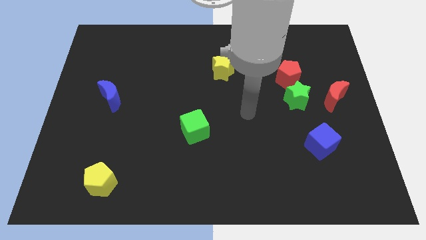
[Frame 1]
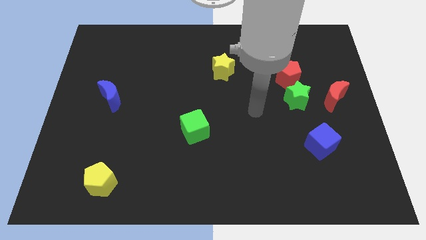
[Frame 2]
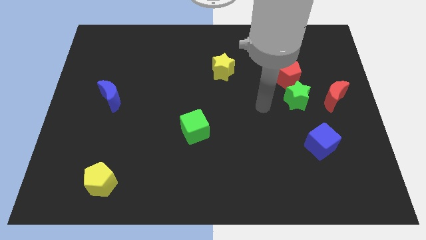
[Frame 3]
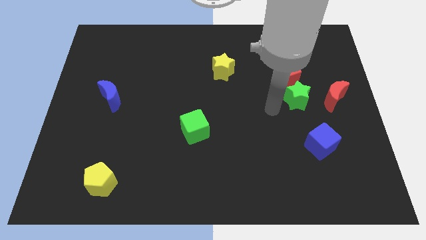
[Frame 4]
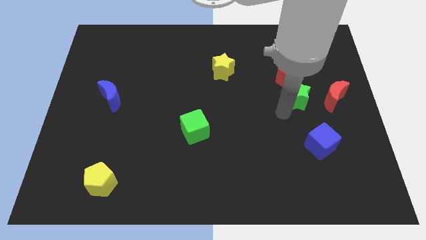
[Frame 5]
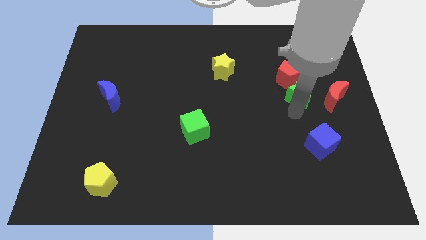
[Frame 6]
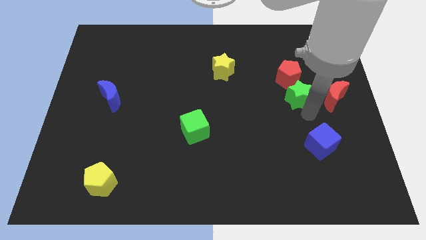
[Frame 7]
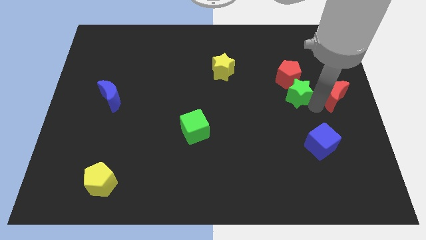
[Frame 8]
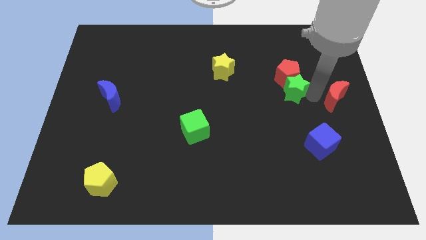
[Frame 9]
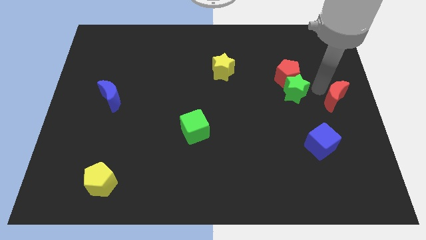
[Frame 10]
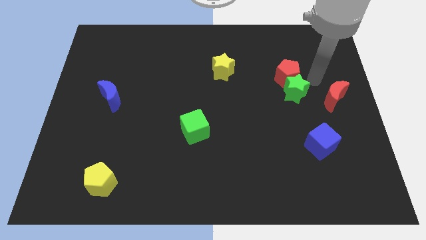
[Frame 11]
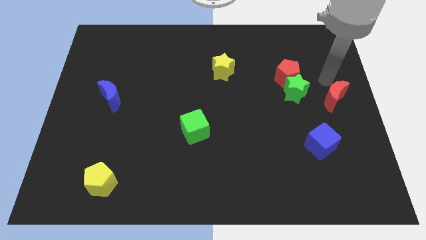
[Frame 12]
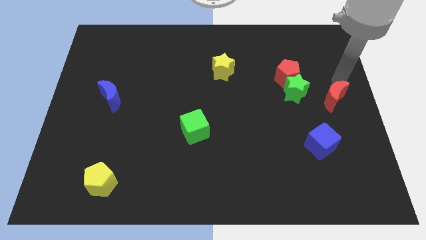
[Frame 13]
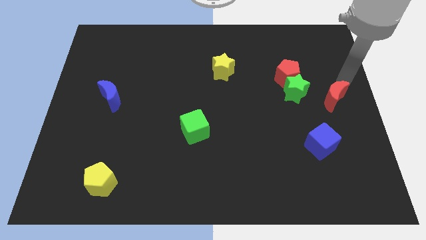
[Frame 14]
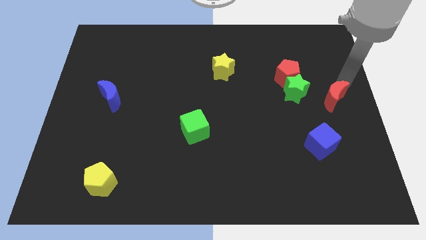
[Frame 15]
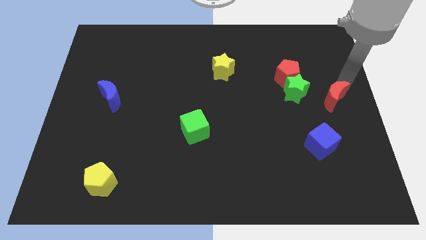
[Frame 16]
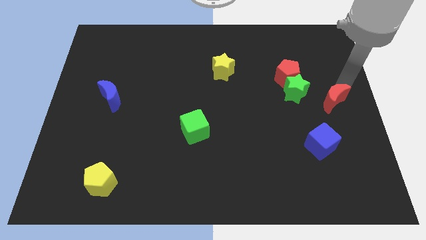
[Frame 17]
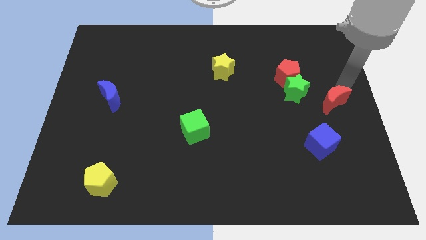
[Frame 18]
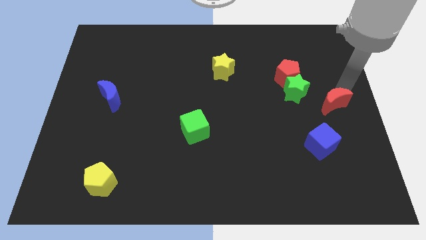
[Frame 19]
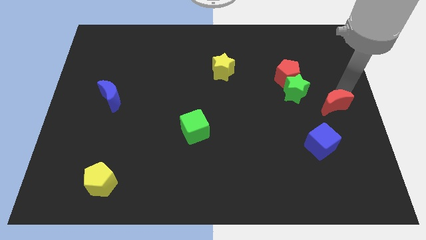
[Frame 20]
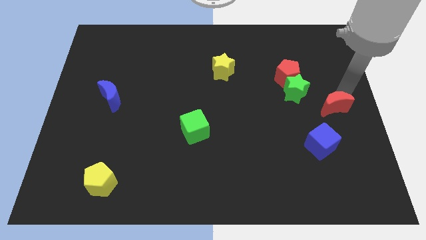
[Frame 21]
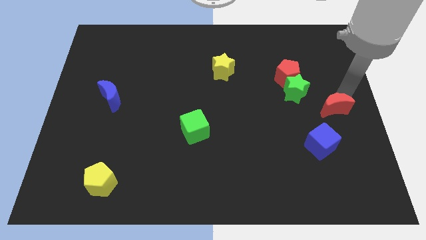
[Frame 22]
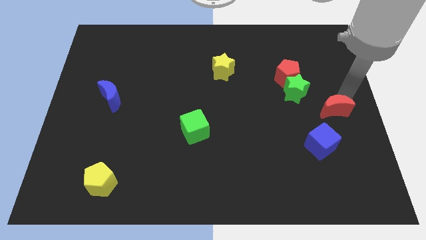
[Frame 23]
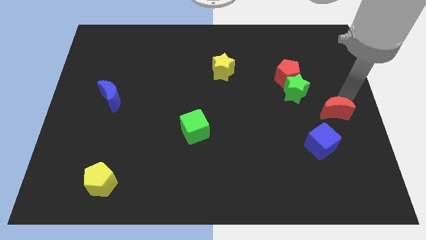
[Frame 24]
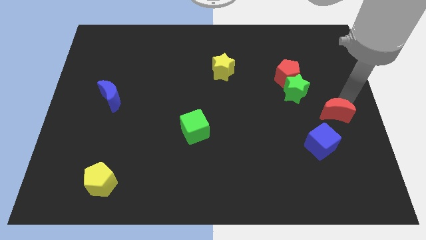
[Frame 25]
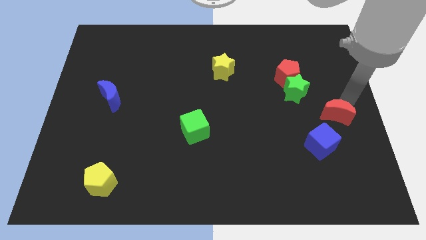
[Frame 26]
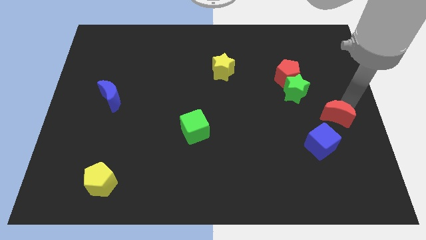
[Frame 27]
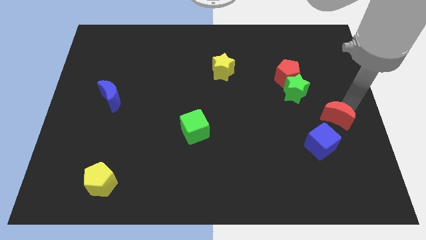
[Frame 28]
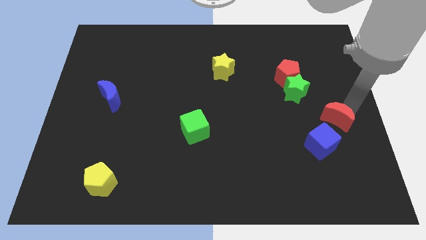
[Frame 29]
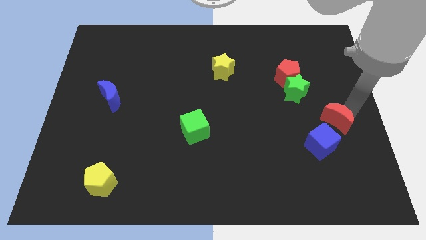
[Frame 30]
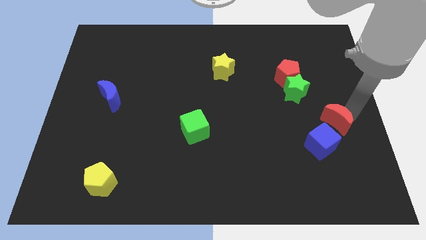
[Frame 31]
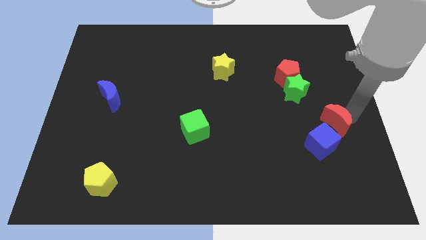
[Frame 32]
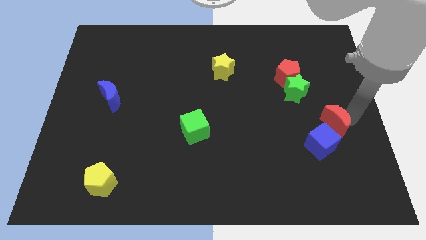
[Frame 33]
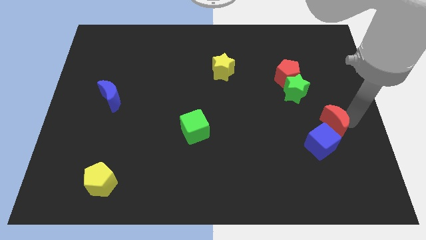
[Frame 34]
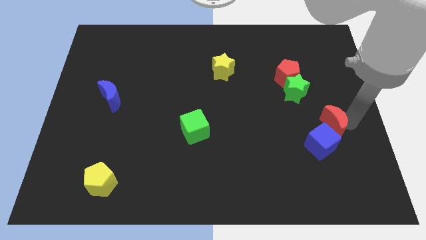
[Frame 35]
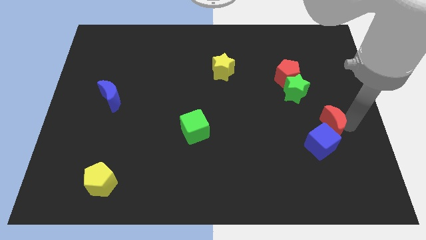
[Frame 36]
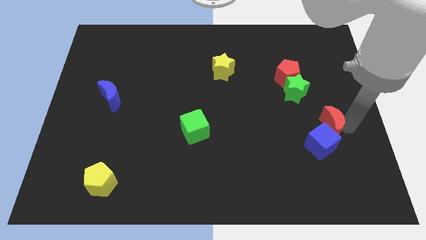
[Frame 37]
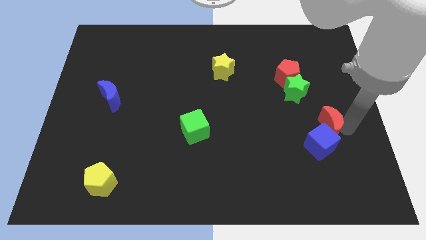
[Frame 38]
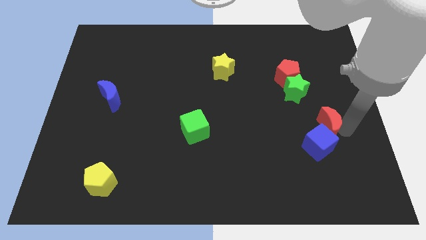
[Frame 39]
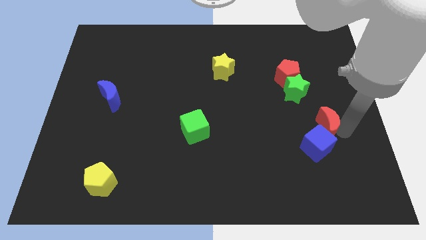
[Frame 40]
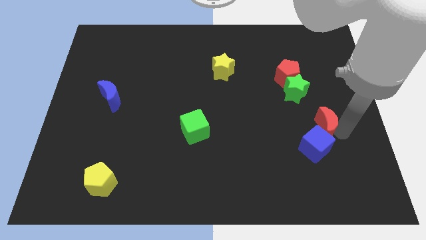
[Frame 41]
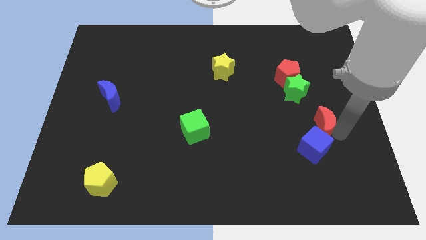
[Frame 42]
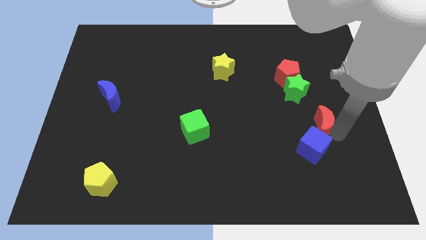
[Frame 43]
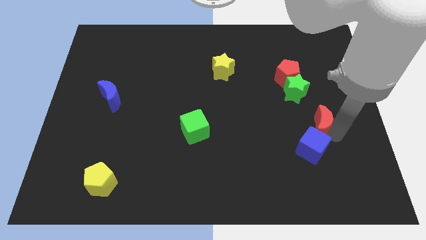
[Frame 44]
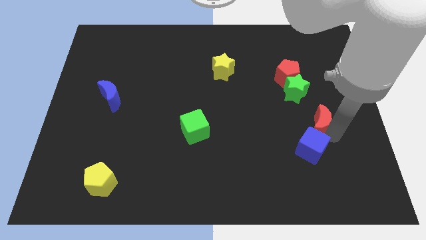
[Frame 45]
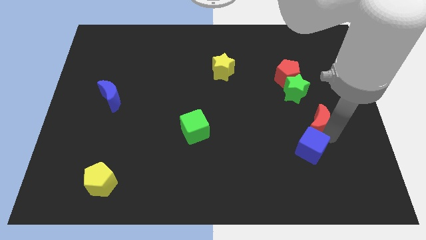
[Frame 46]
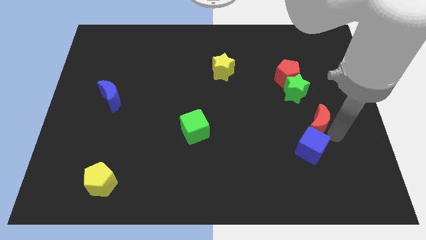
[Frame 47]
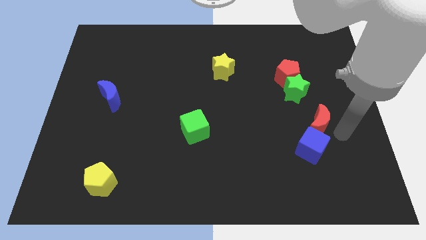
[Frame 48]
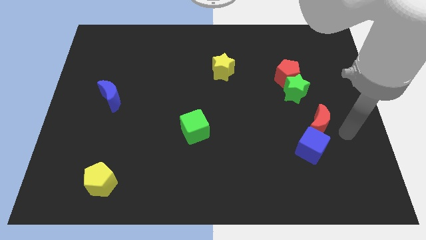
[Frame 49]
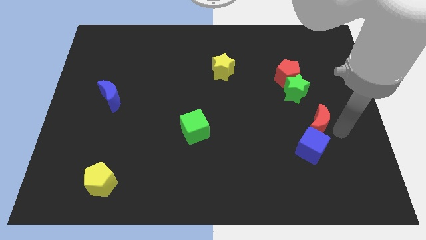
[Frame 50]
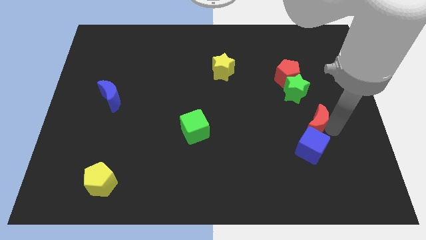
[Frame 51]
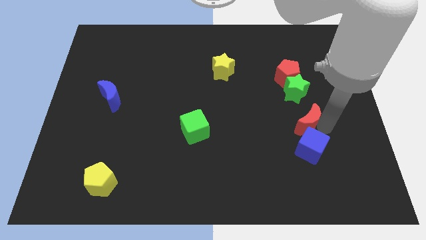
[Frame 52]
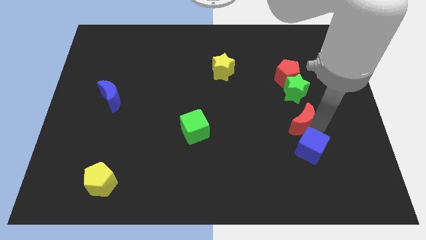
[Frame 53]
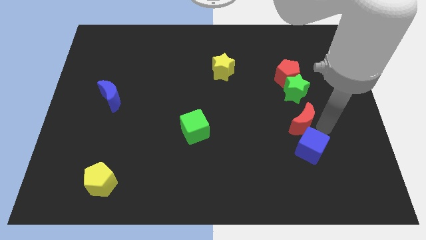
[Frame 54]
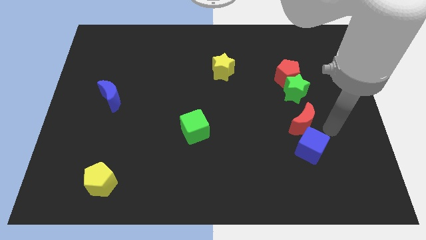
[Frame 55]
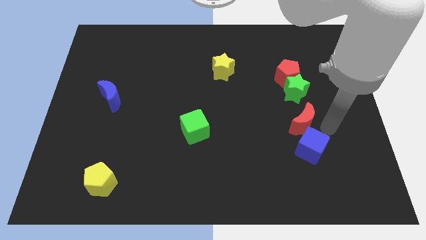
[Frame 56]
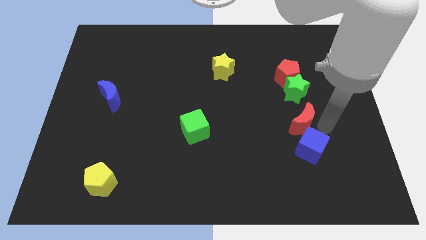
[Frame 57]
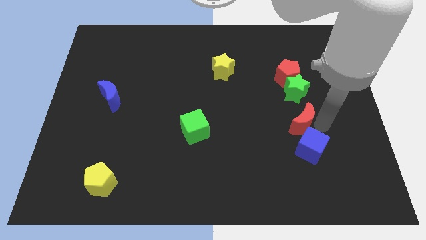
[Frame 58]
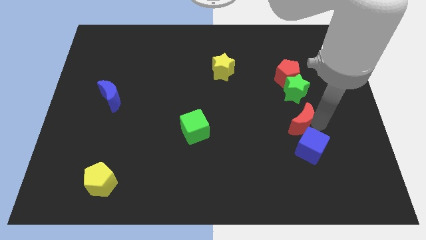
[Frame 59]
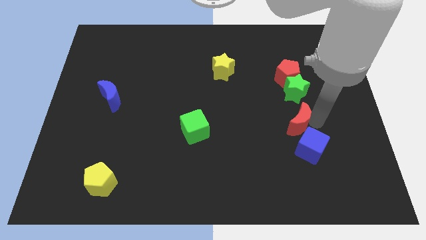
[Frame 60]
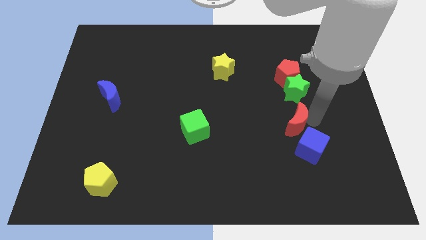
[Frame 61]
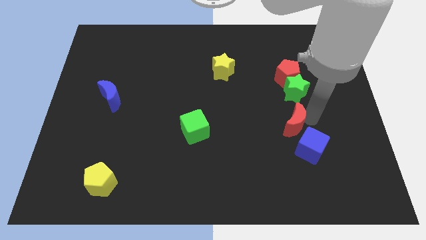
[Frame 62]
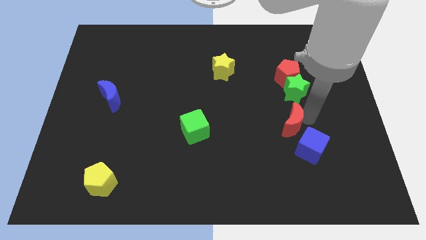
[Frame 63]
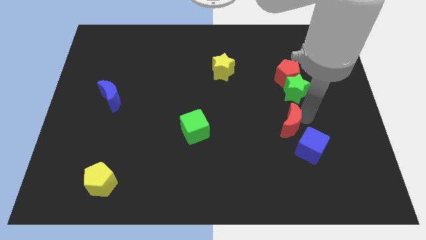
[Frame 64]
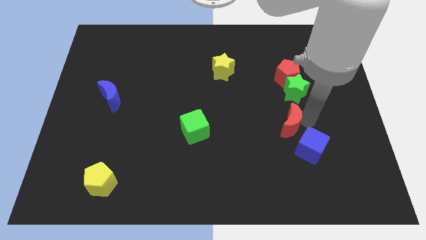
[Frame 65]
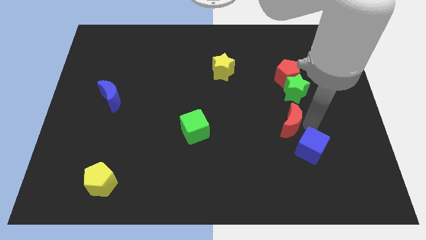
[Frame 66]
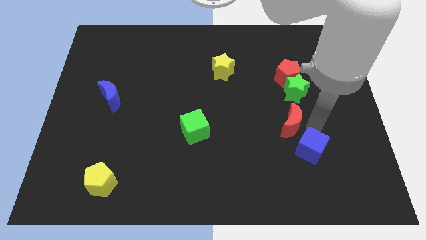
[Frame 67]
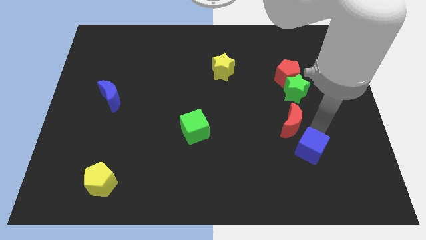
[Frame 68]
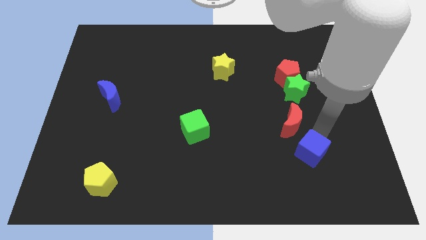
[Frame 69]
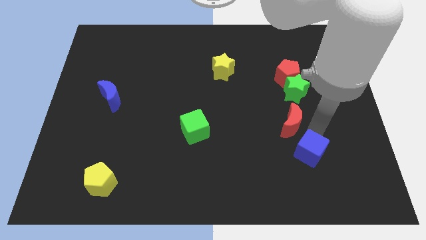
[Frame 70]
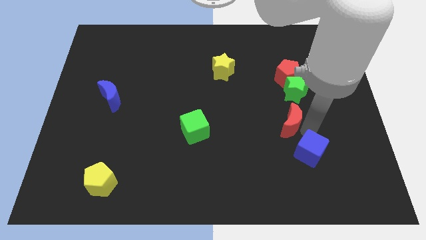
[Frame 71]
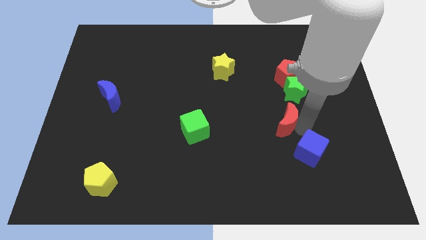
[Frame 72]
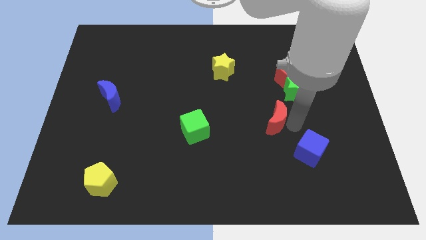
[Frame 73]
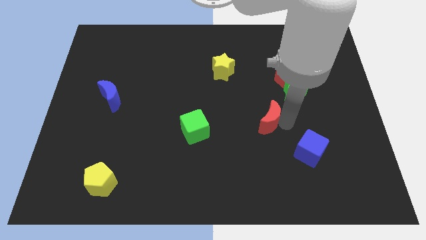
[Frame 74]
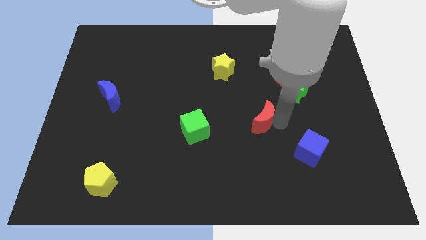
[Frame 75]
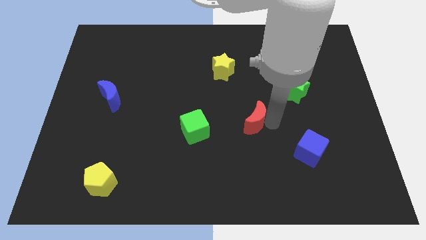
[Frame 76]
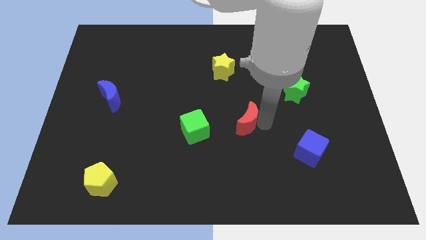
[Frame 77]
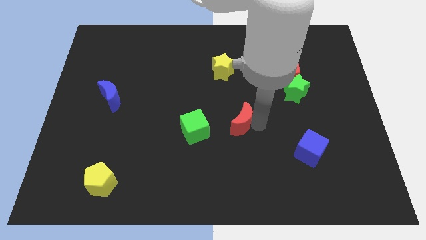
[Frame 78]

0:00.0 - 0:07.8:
move the red moon left

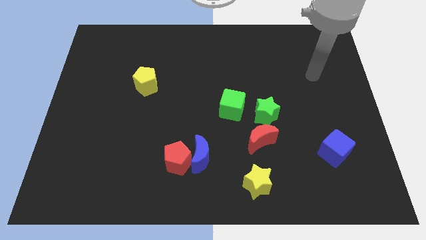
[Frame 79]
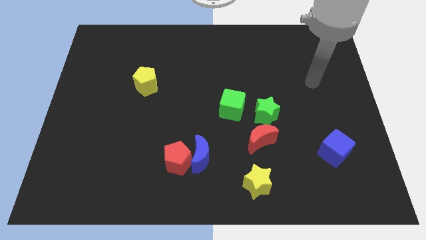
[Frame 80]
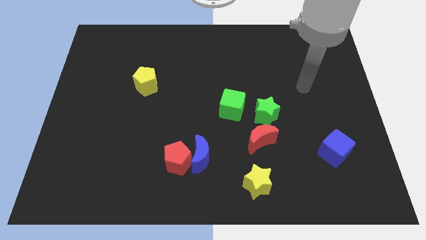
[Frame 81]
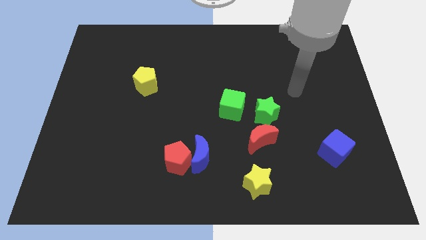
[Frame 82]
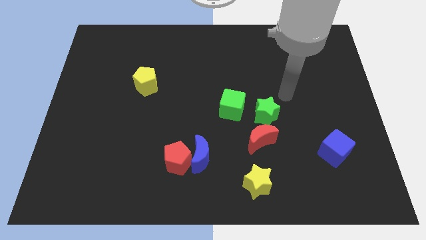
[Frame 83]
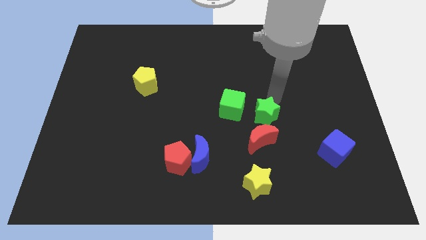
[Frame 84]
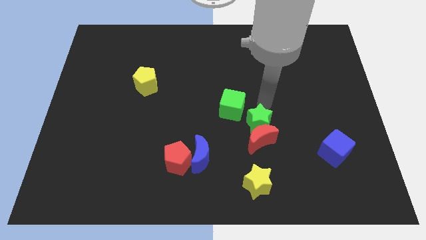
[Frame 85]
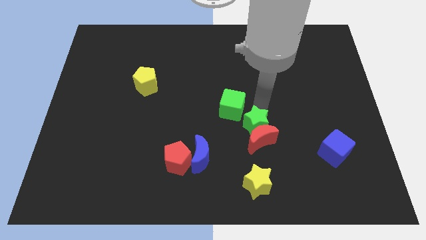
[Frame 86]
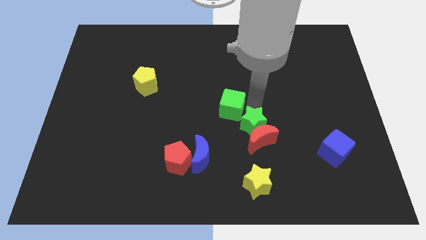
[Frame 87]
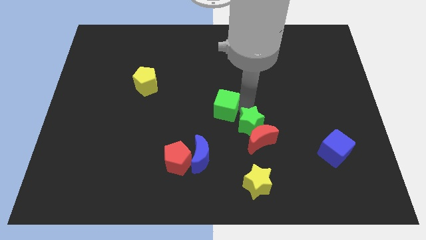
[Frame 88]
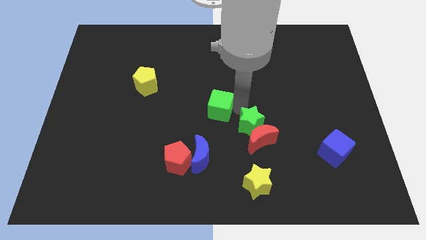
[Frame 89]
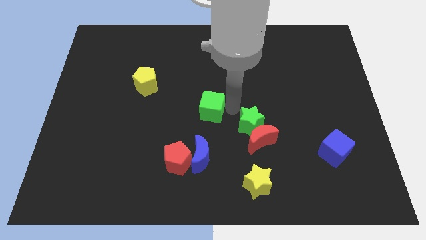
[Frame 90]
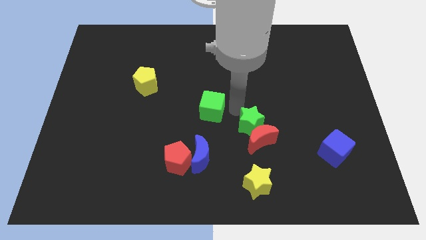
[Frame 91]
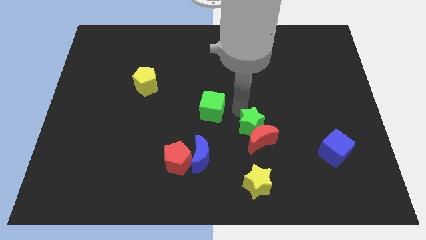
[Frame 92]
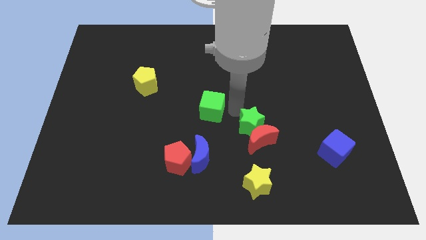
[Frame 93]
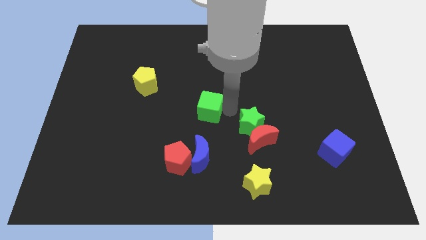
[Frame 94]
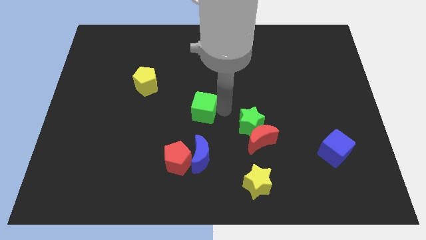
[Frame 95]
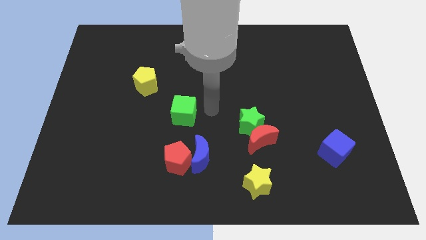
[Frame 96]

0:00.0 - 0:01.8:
slightly slide the green cube left
